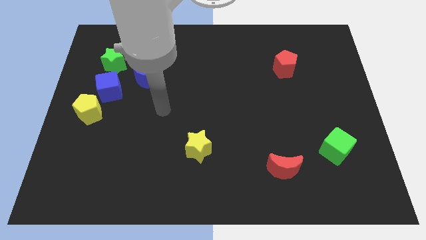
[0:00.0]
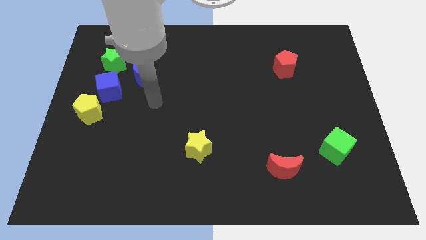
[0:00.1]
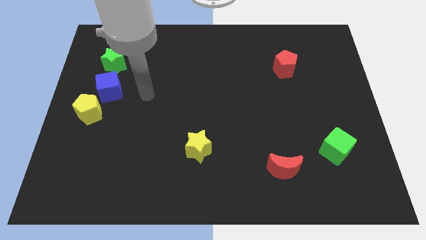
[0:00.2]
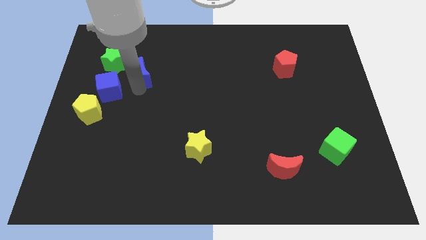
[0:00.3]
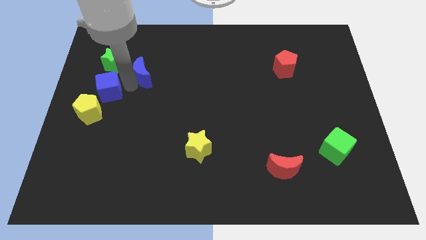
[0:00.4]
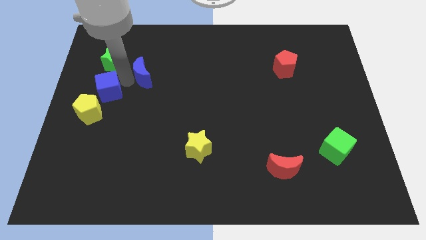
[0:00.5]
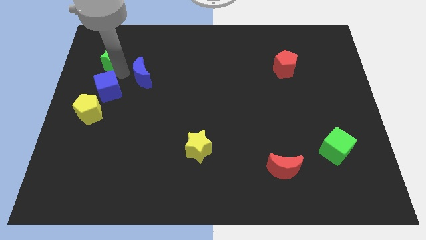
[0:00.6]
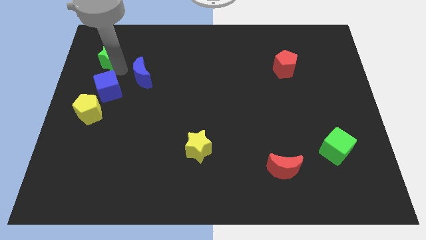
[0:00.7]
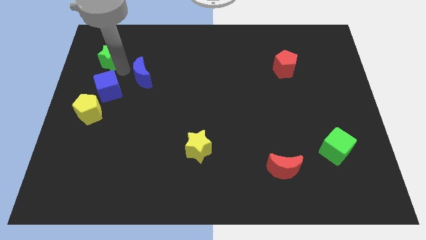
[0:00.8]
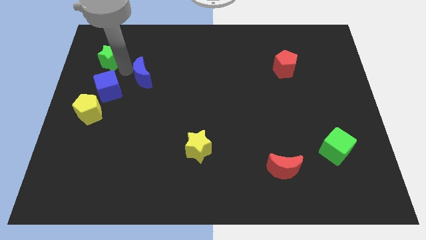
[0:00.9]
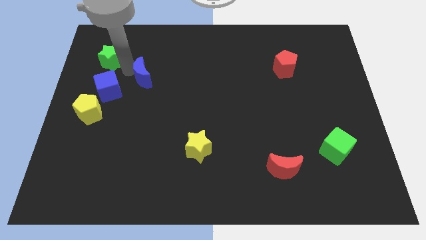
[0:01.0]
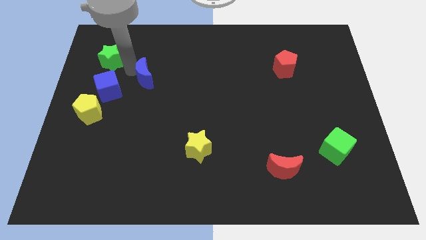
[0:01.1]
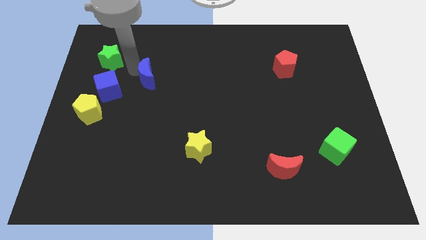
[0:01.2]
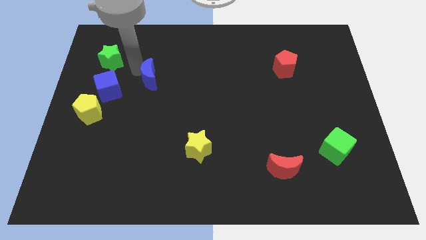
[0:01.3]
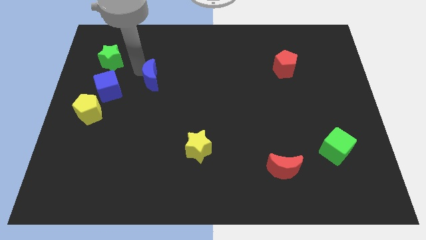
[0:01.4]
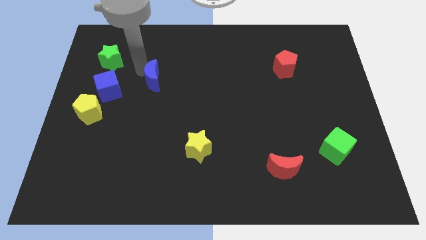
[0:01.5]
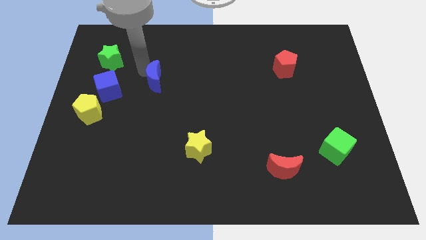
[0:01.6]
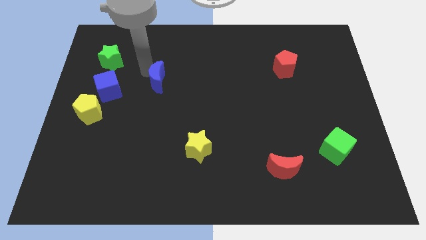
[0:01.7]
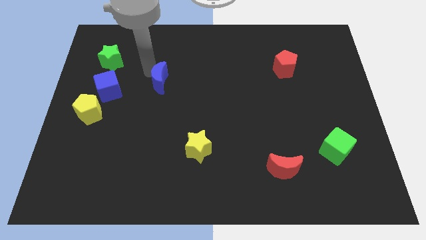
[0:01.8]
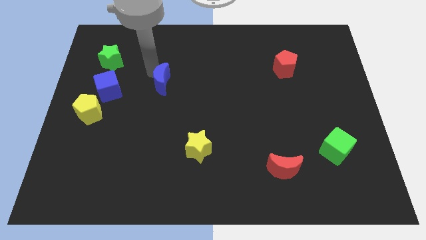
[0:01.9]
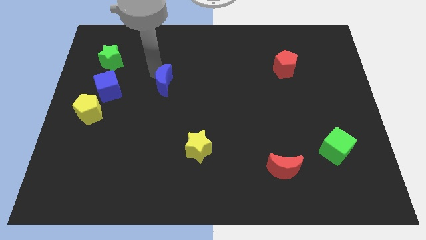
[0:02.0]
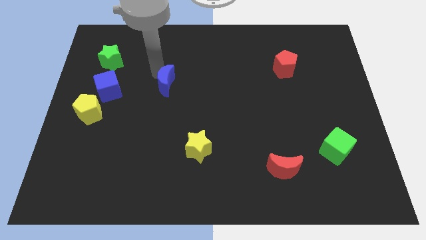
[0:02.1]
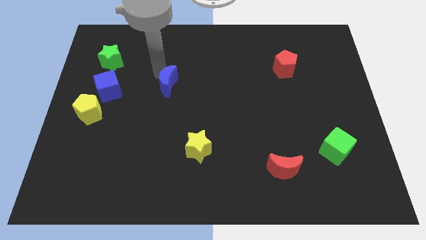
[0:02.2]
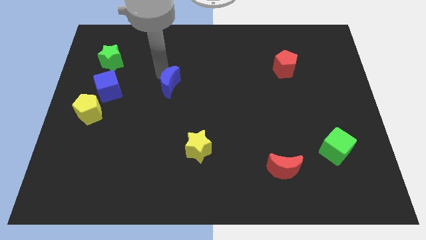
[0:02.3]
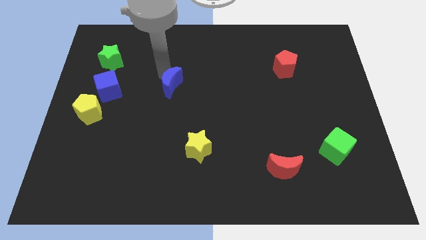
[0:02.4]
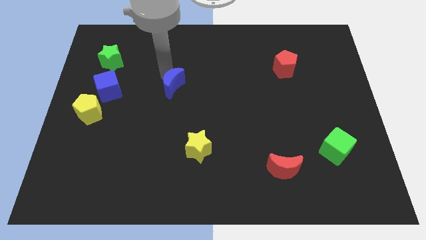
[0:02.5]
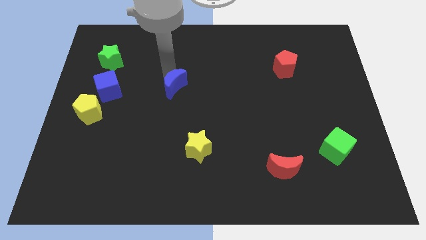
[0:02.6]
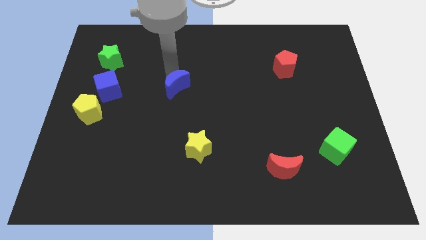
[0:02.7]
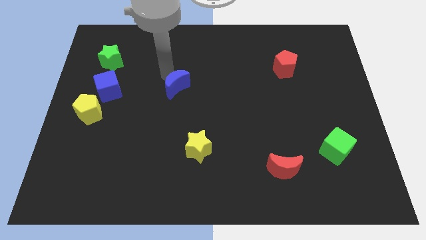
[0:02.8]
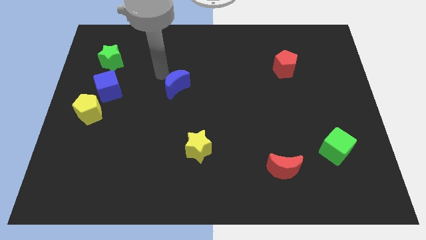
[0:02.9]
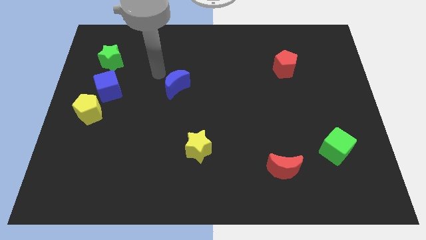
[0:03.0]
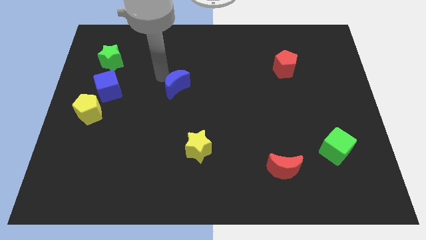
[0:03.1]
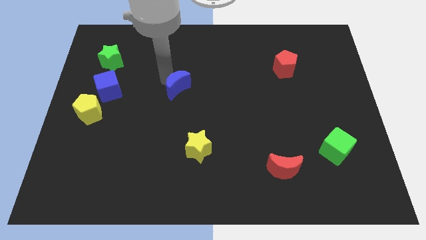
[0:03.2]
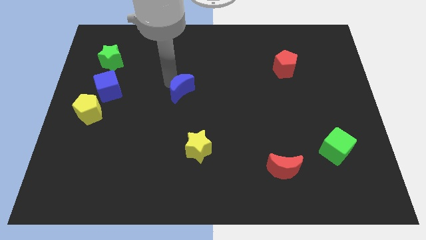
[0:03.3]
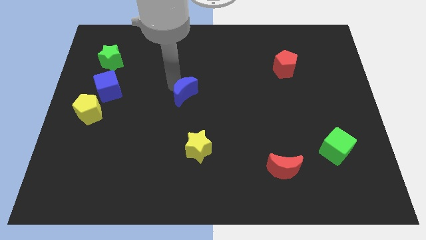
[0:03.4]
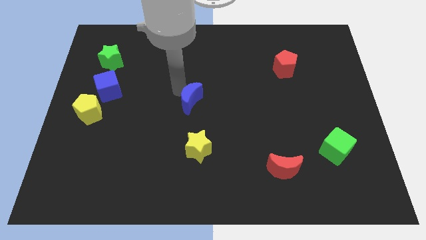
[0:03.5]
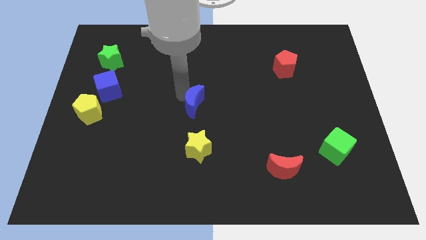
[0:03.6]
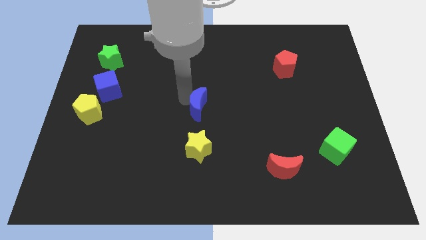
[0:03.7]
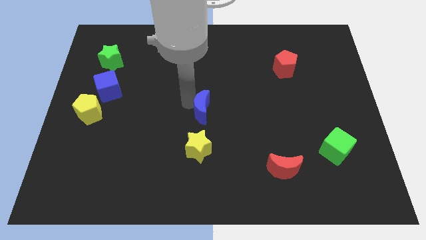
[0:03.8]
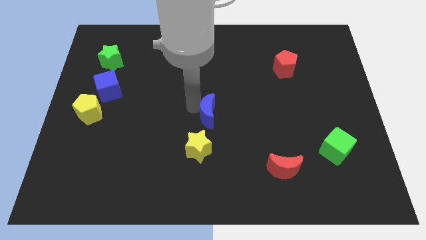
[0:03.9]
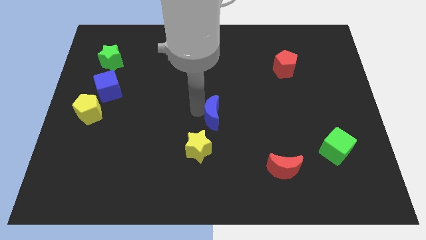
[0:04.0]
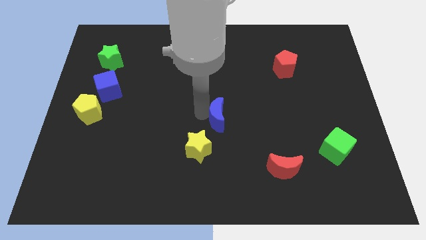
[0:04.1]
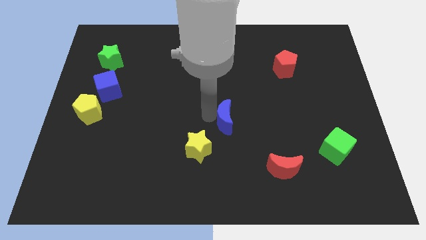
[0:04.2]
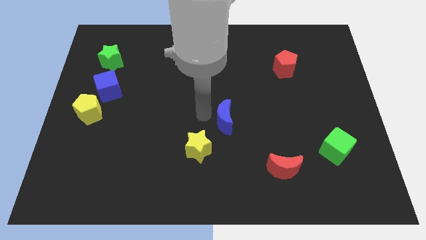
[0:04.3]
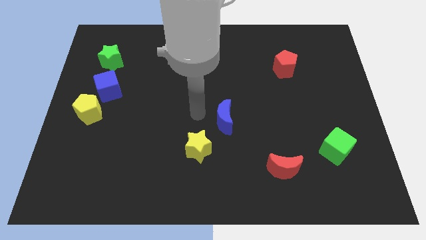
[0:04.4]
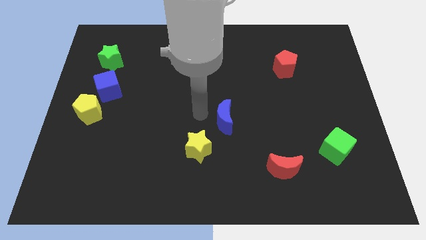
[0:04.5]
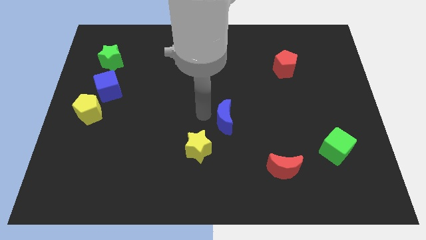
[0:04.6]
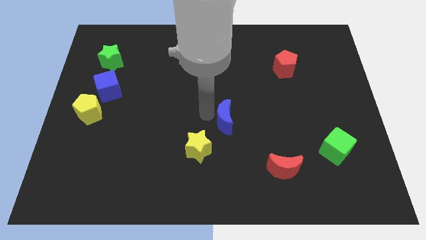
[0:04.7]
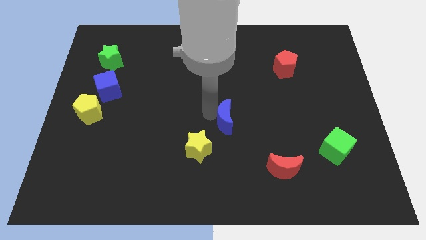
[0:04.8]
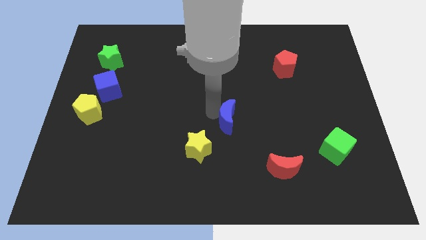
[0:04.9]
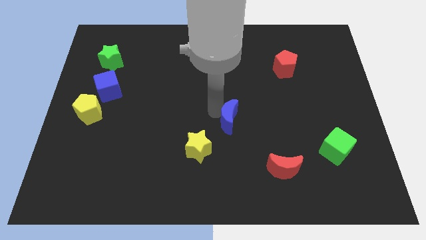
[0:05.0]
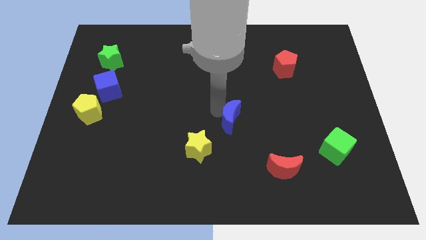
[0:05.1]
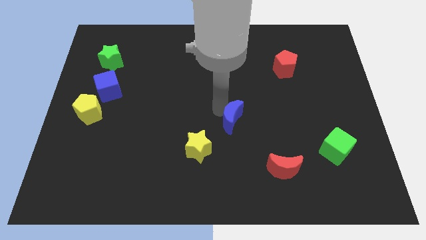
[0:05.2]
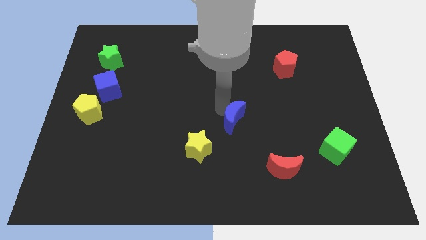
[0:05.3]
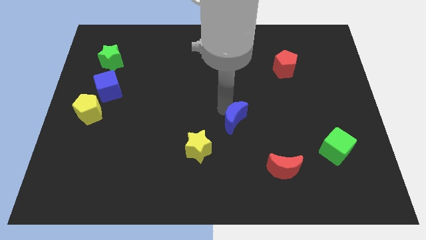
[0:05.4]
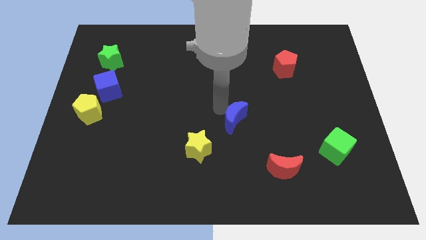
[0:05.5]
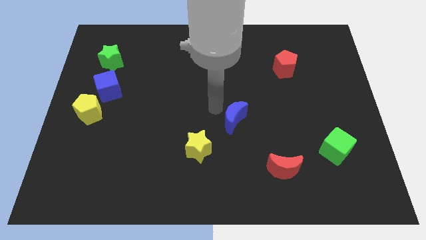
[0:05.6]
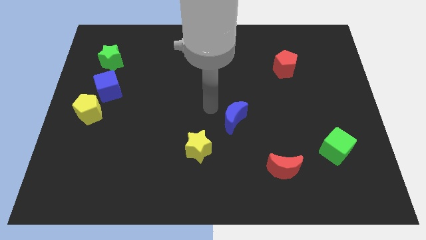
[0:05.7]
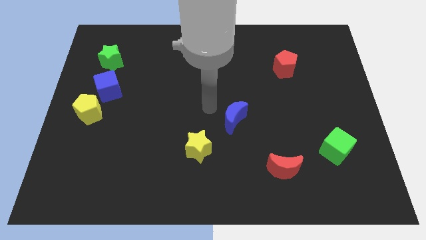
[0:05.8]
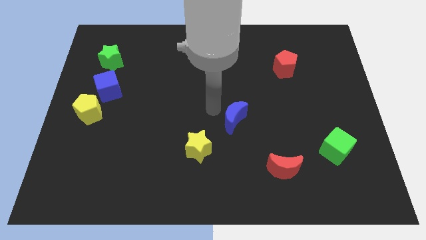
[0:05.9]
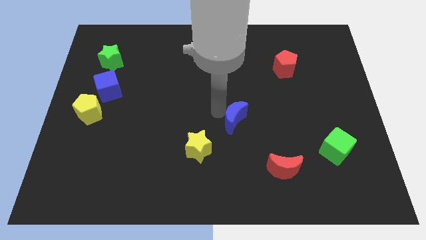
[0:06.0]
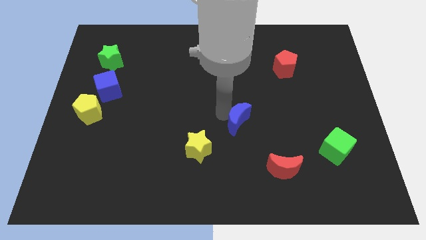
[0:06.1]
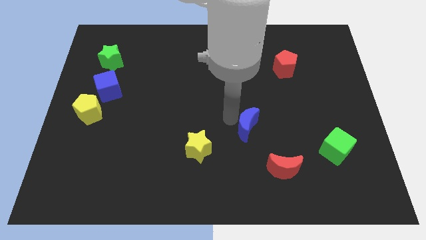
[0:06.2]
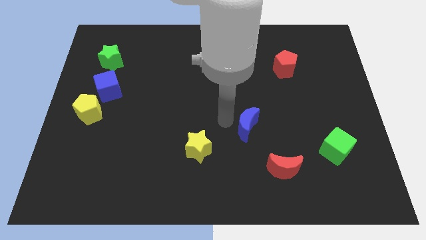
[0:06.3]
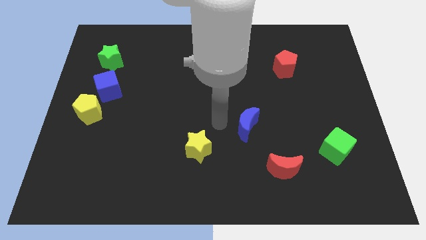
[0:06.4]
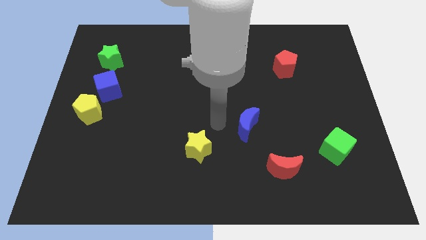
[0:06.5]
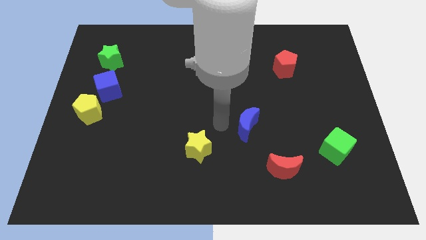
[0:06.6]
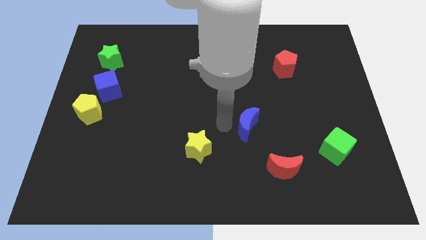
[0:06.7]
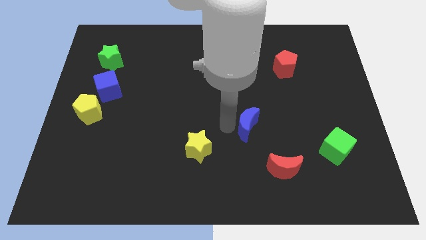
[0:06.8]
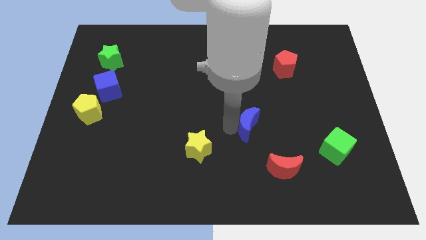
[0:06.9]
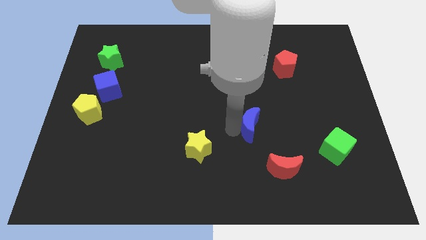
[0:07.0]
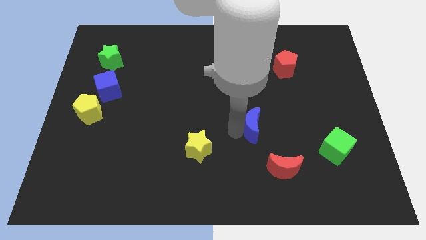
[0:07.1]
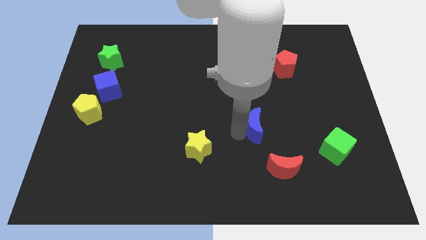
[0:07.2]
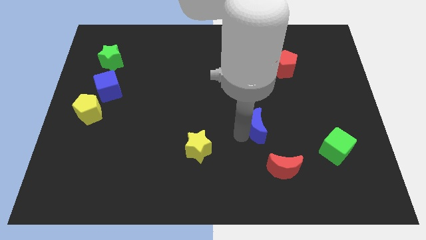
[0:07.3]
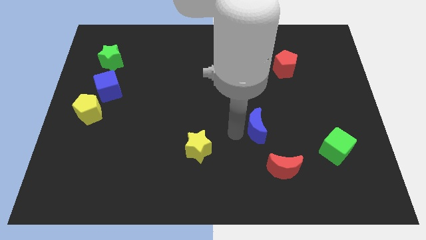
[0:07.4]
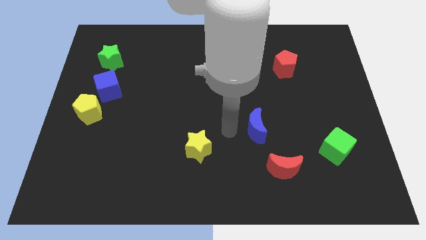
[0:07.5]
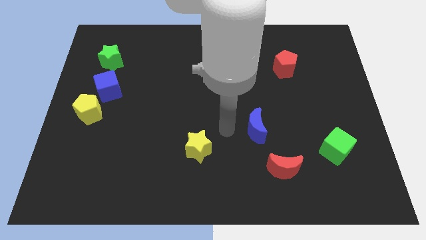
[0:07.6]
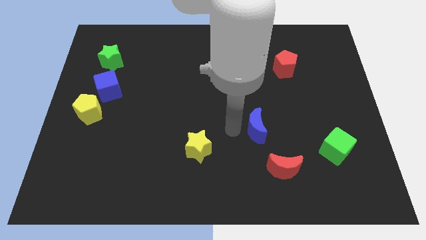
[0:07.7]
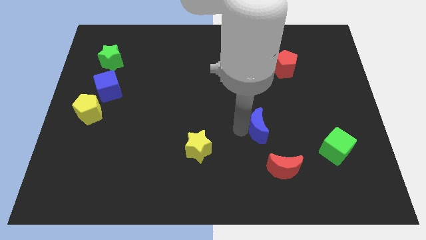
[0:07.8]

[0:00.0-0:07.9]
slide the blue moon to the top side of the red moon
